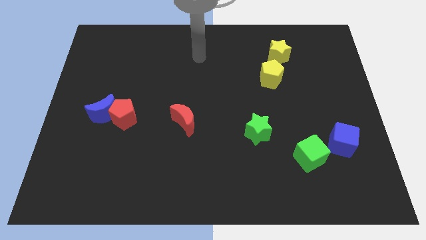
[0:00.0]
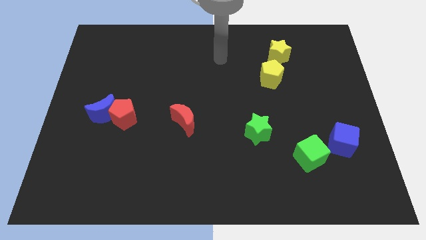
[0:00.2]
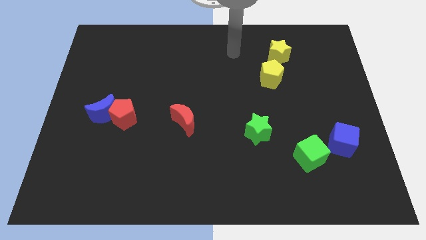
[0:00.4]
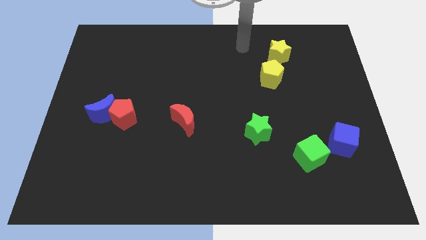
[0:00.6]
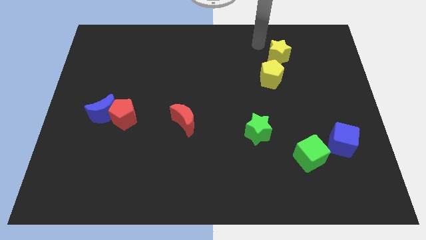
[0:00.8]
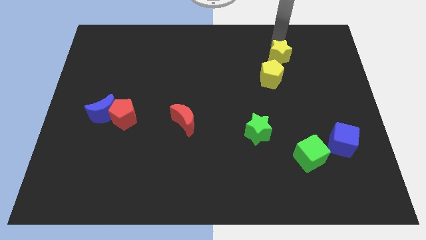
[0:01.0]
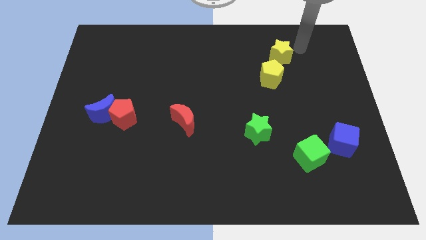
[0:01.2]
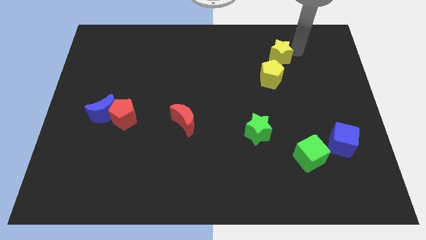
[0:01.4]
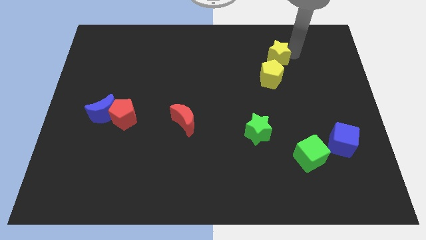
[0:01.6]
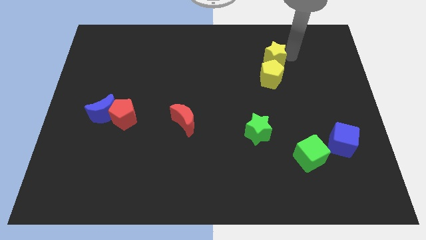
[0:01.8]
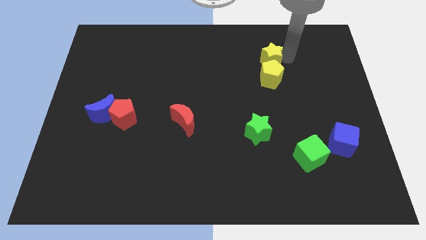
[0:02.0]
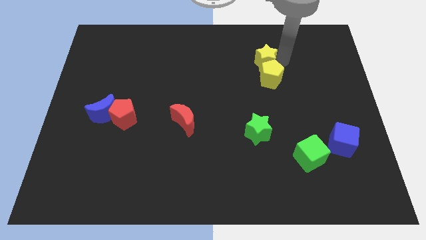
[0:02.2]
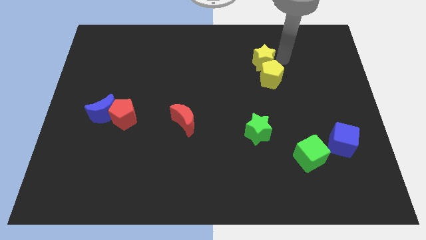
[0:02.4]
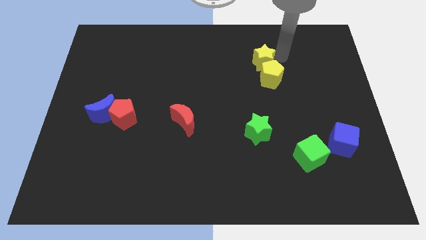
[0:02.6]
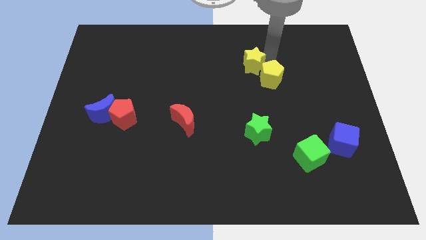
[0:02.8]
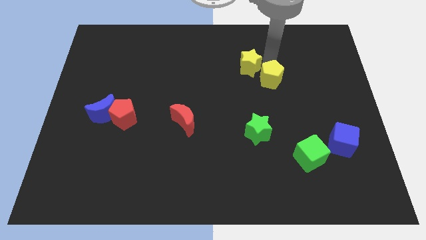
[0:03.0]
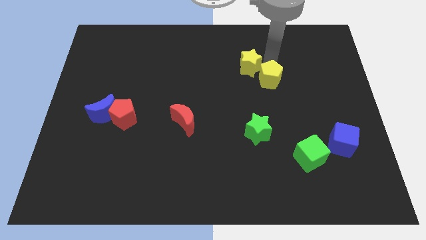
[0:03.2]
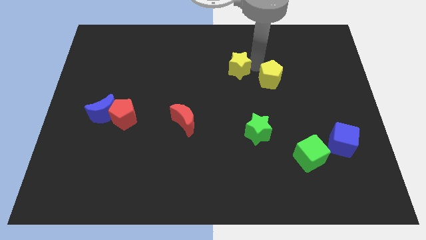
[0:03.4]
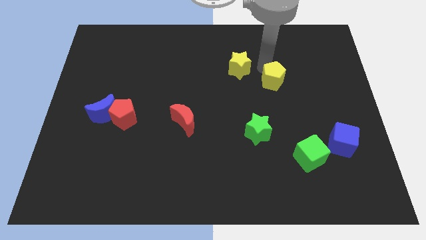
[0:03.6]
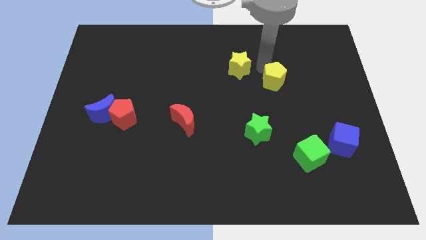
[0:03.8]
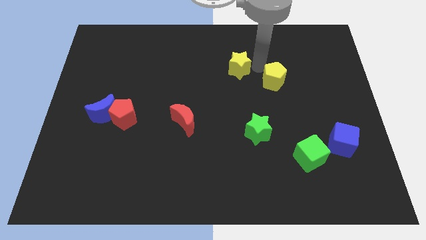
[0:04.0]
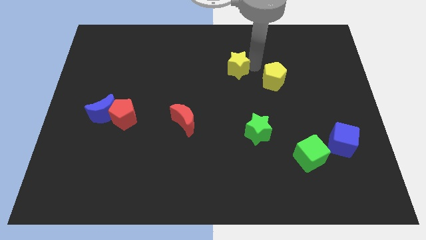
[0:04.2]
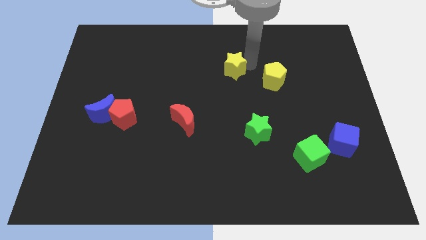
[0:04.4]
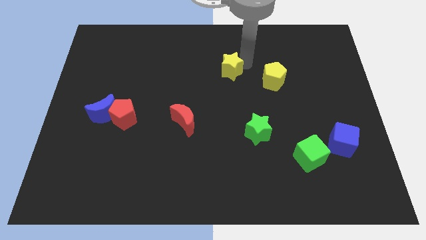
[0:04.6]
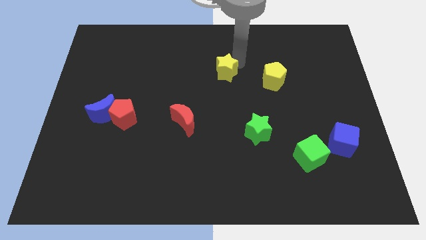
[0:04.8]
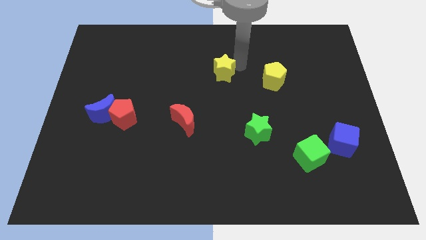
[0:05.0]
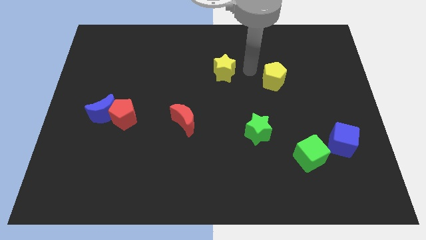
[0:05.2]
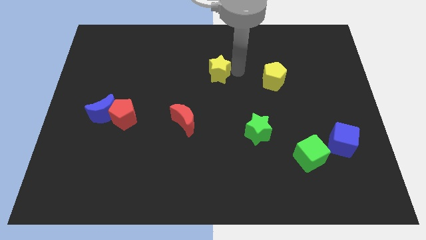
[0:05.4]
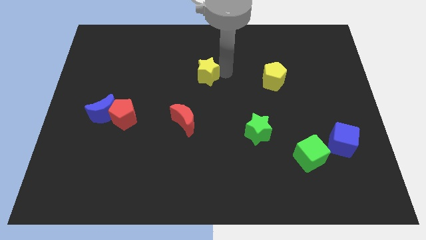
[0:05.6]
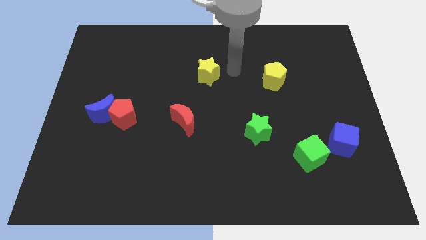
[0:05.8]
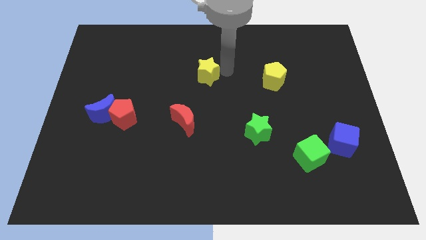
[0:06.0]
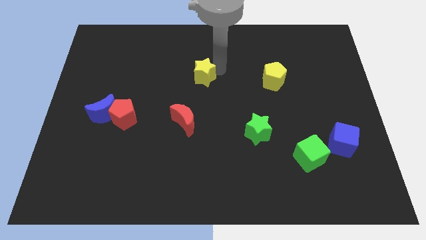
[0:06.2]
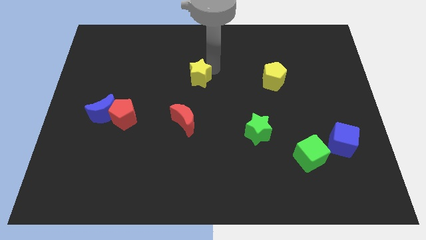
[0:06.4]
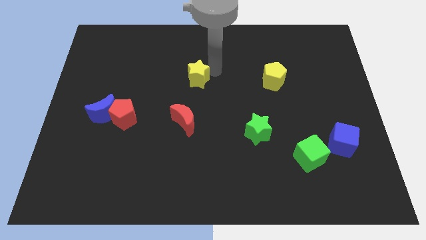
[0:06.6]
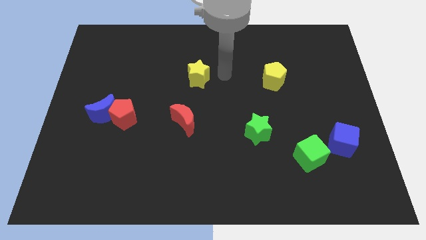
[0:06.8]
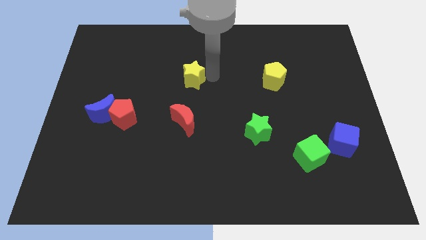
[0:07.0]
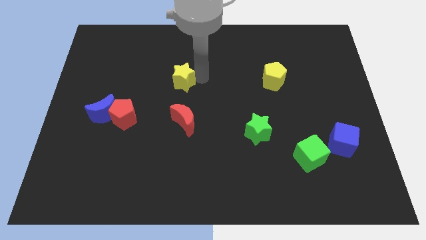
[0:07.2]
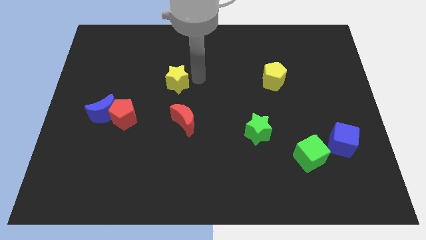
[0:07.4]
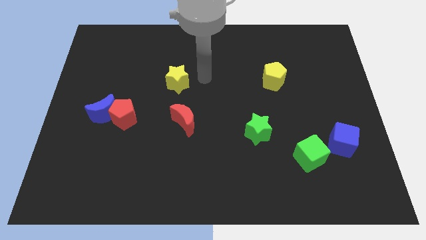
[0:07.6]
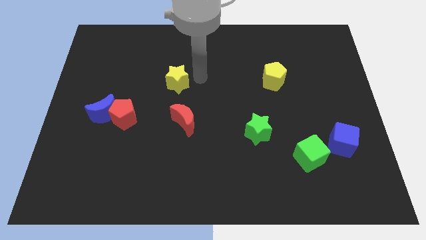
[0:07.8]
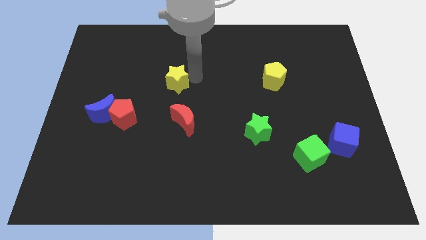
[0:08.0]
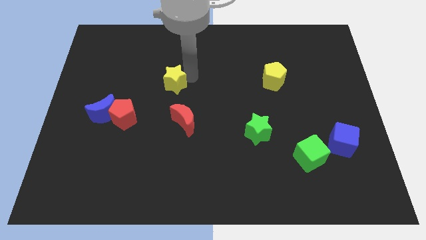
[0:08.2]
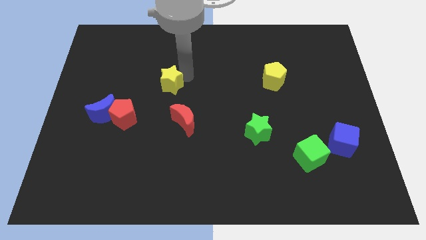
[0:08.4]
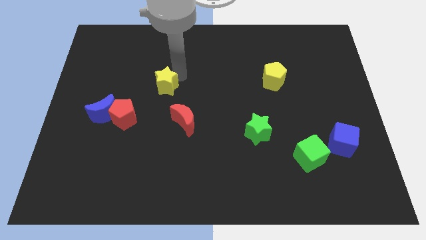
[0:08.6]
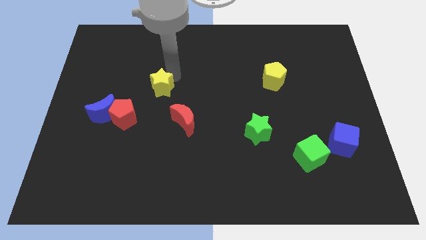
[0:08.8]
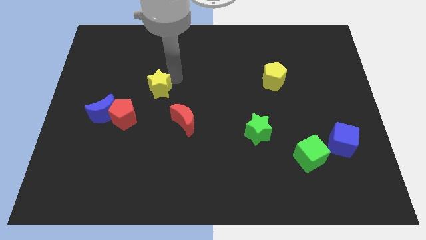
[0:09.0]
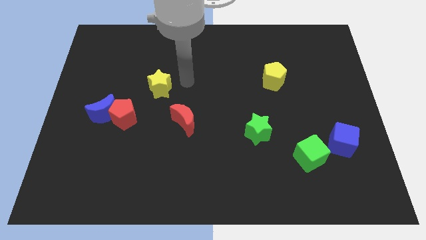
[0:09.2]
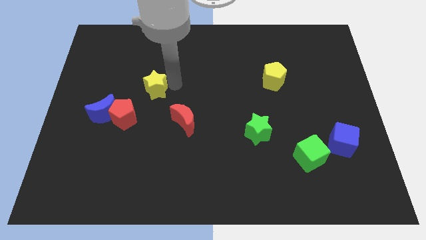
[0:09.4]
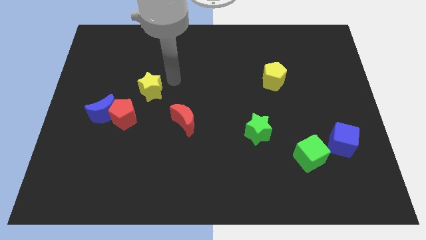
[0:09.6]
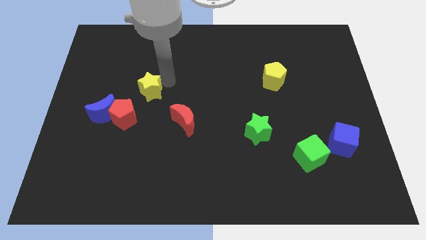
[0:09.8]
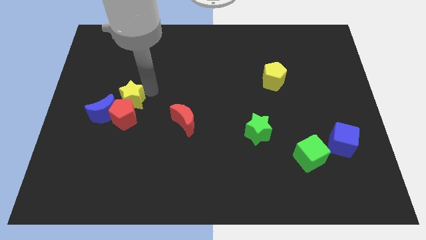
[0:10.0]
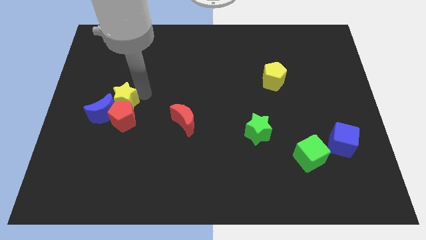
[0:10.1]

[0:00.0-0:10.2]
move the yellow star to the blue moon

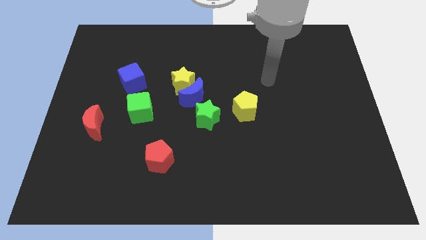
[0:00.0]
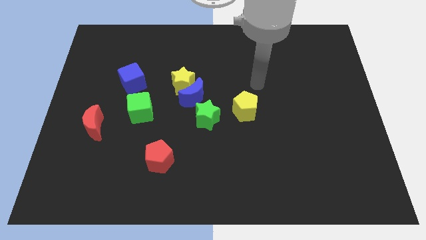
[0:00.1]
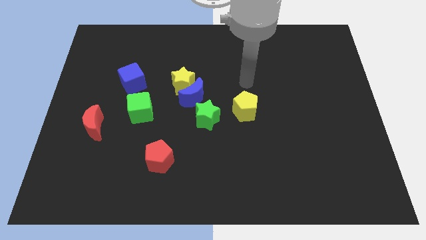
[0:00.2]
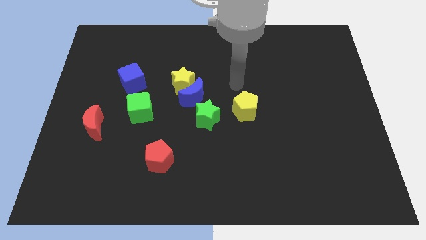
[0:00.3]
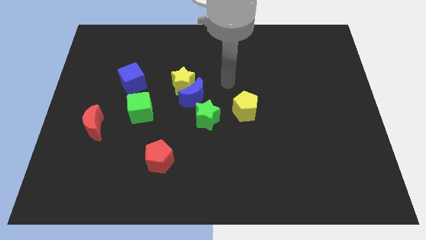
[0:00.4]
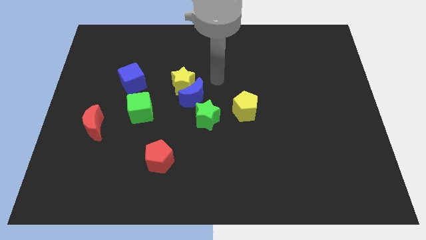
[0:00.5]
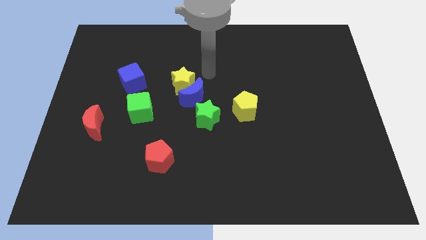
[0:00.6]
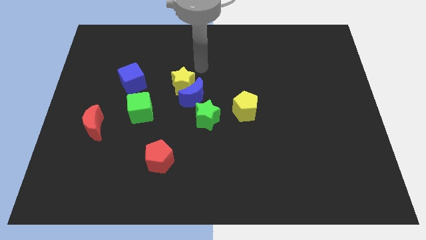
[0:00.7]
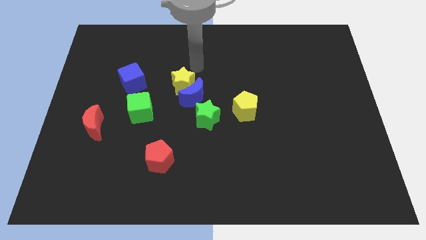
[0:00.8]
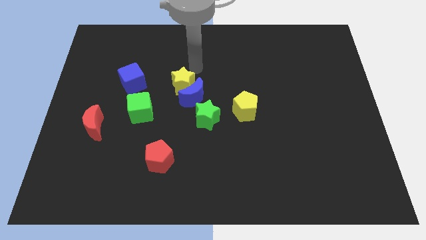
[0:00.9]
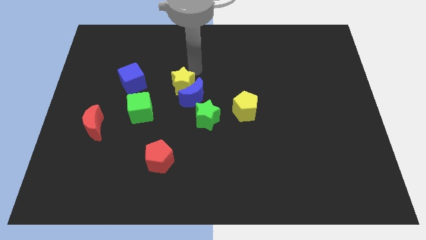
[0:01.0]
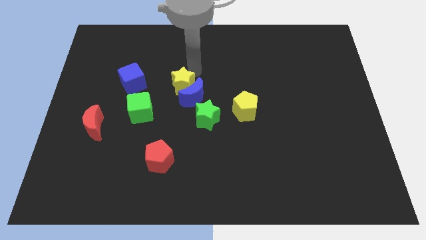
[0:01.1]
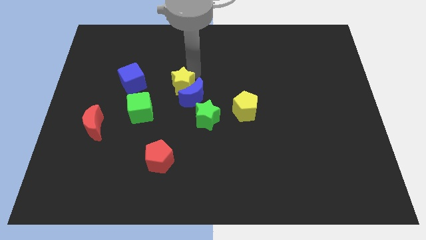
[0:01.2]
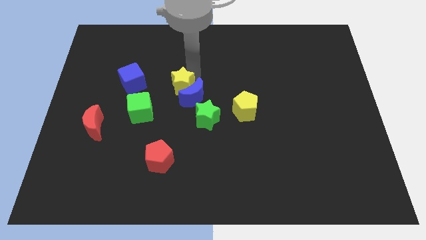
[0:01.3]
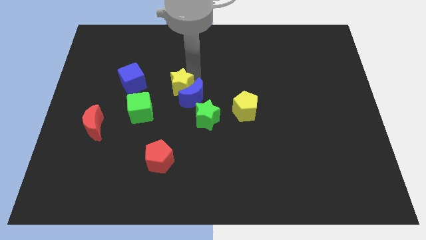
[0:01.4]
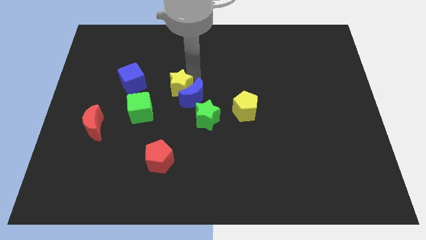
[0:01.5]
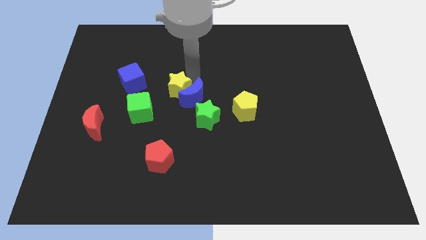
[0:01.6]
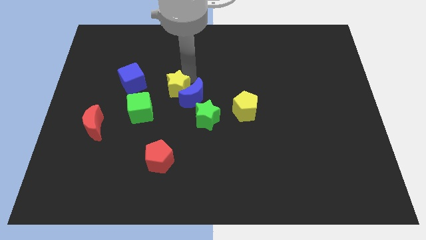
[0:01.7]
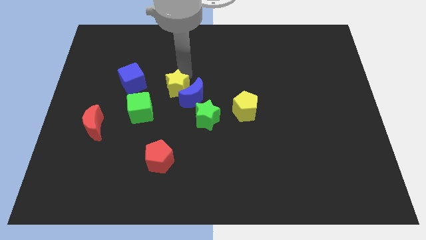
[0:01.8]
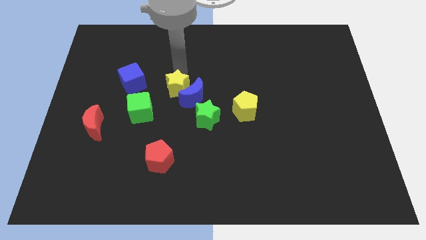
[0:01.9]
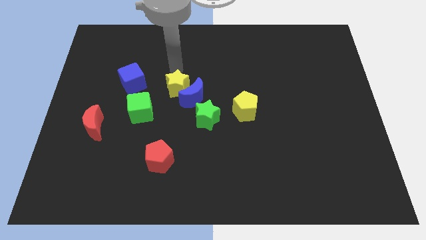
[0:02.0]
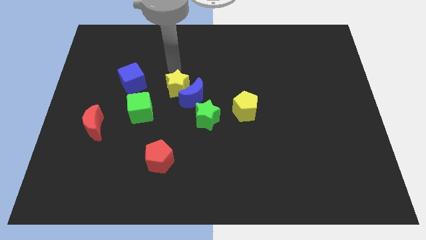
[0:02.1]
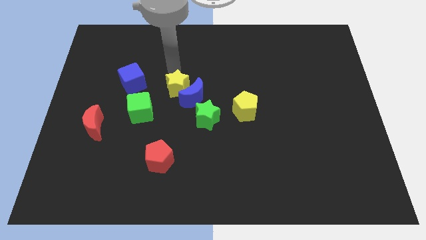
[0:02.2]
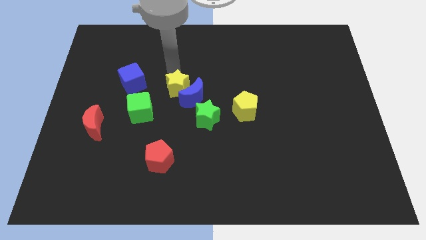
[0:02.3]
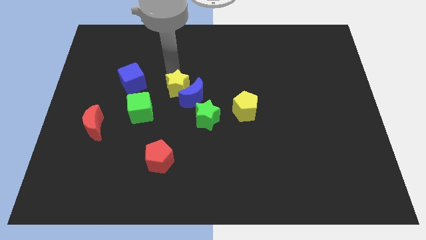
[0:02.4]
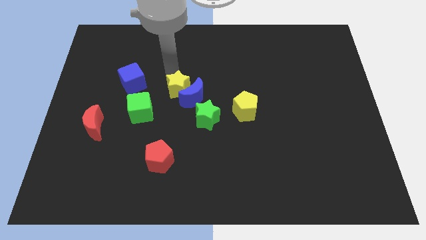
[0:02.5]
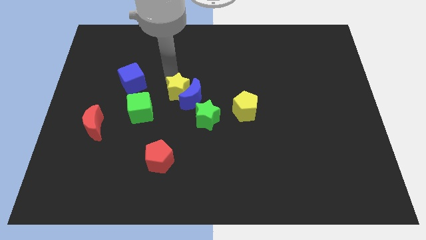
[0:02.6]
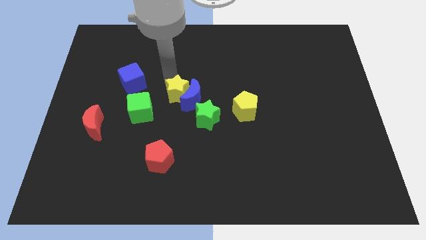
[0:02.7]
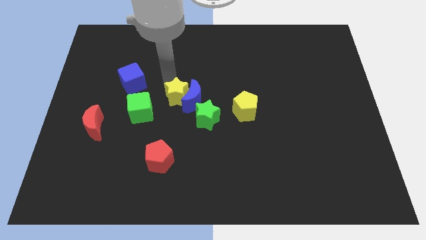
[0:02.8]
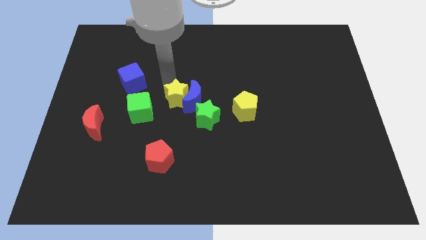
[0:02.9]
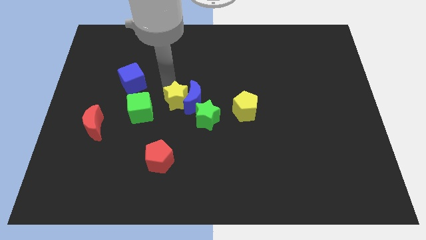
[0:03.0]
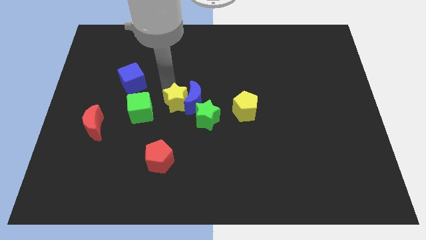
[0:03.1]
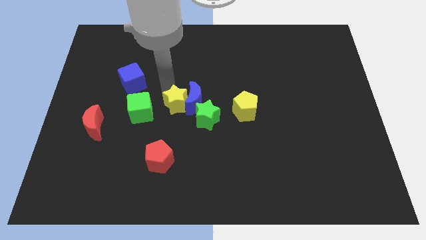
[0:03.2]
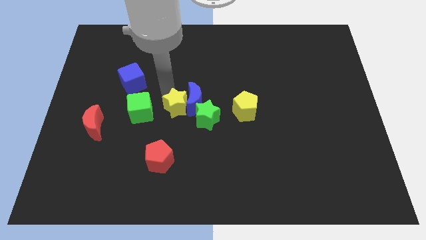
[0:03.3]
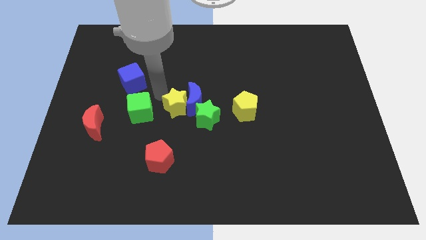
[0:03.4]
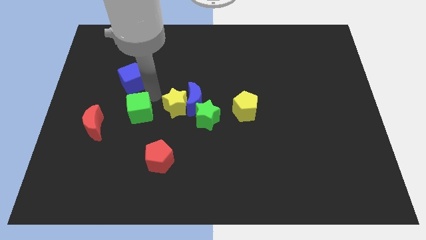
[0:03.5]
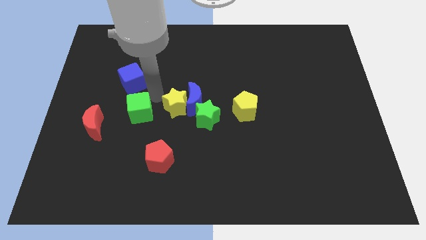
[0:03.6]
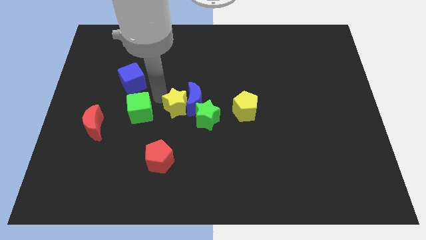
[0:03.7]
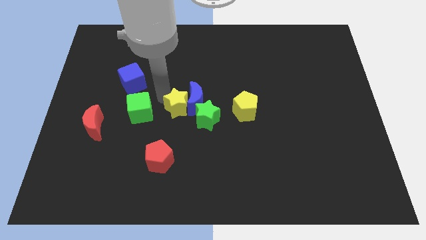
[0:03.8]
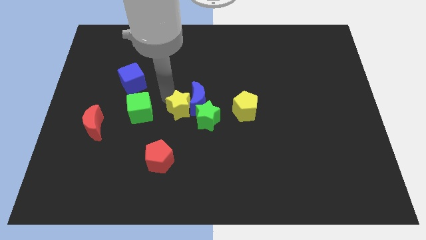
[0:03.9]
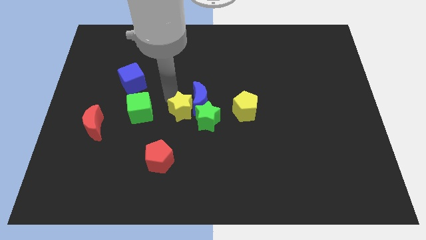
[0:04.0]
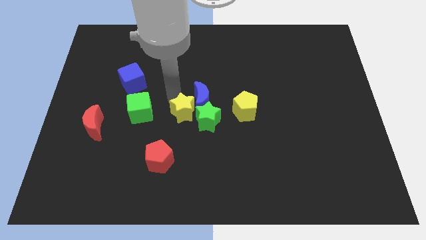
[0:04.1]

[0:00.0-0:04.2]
slide the yellow star towards the green star
